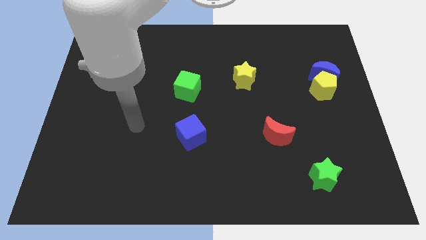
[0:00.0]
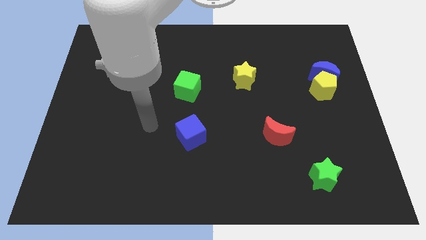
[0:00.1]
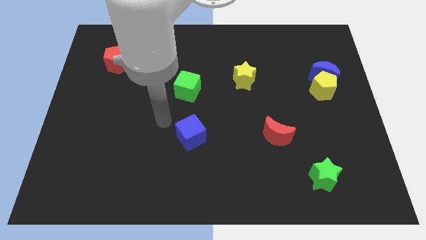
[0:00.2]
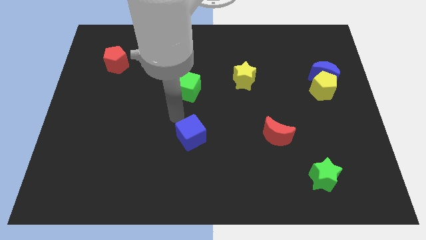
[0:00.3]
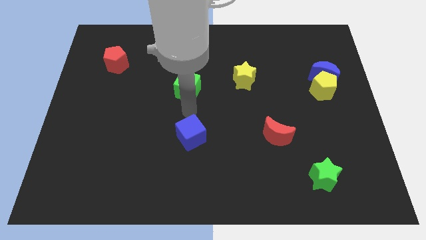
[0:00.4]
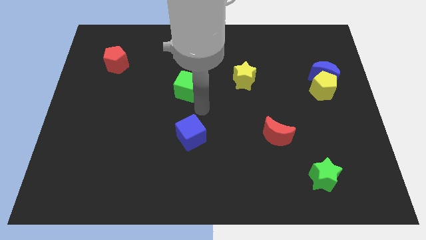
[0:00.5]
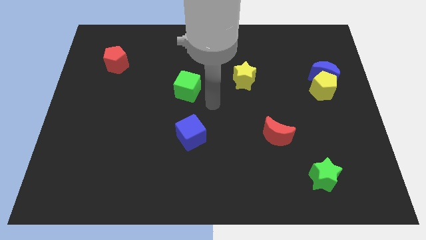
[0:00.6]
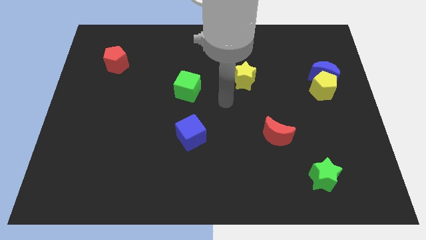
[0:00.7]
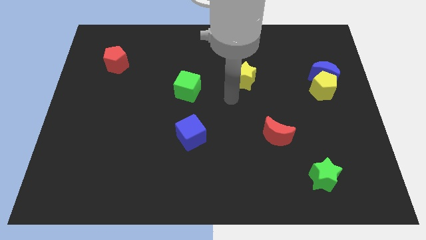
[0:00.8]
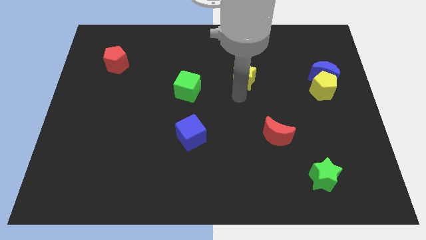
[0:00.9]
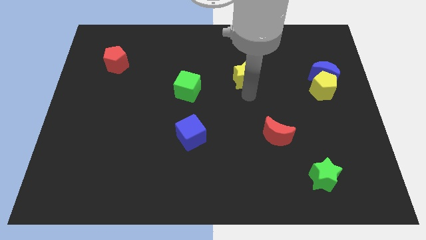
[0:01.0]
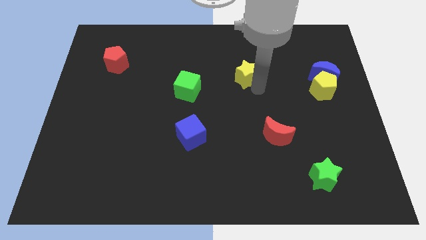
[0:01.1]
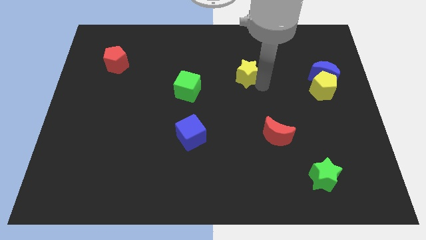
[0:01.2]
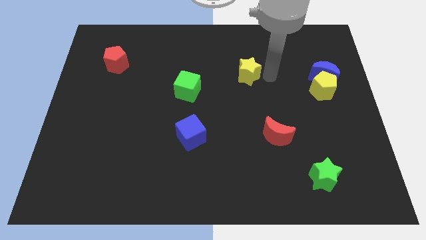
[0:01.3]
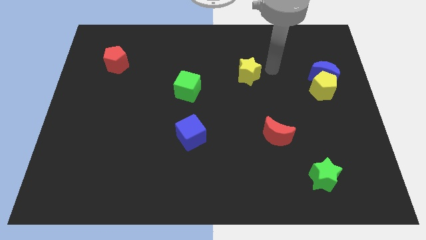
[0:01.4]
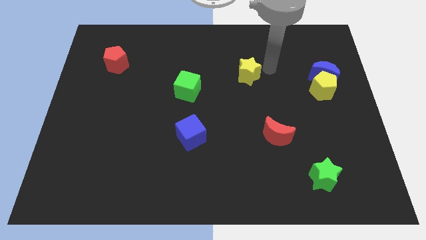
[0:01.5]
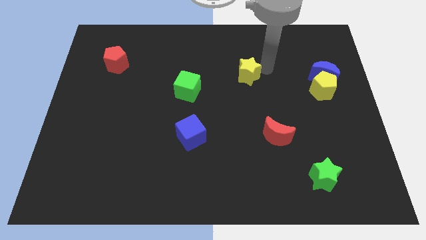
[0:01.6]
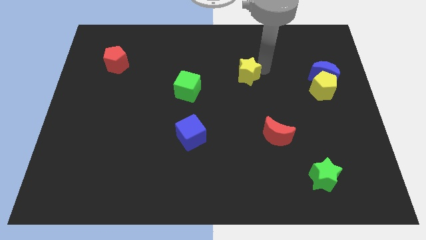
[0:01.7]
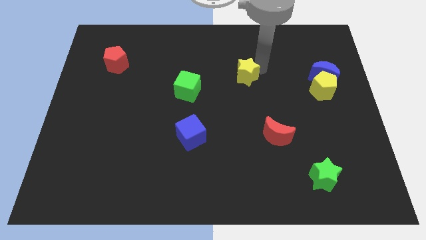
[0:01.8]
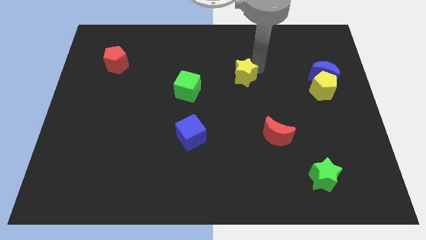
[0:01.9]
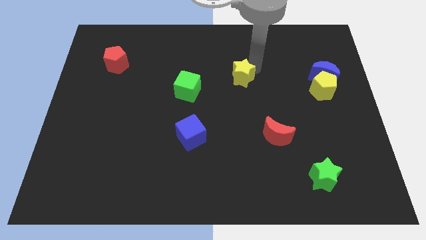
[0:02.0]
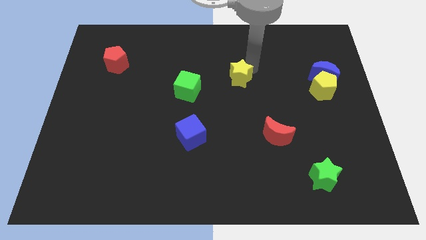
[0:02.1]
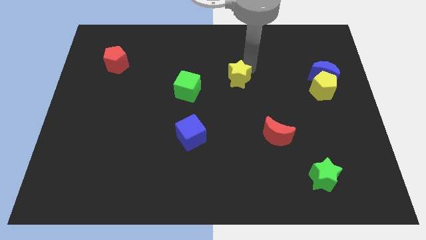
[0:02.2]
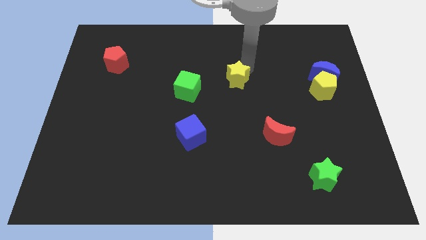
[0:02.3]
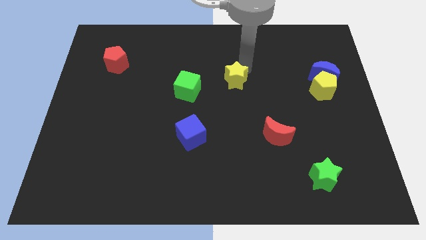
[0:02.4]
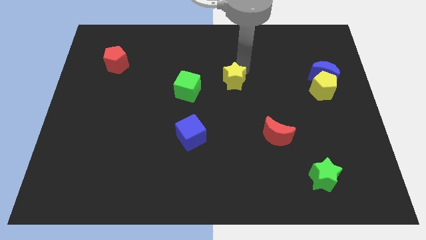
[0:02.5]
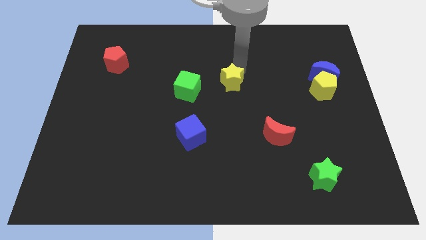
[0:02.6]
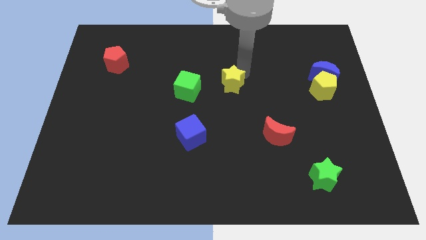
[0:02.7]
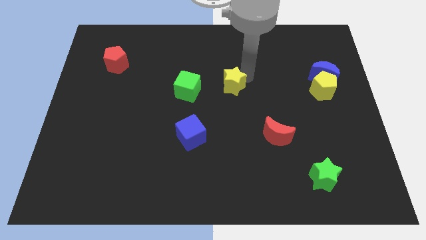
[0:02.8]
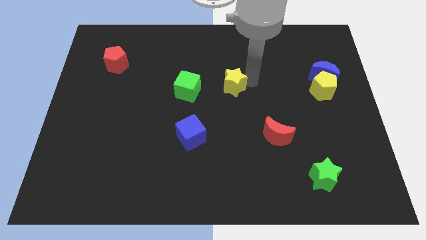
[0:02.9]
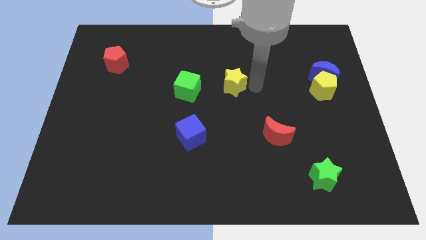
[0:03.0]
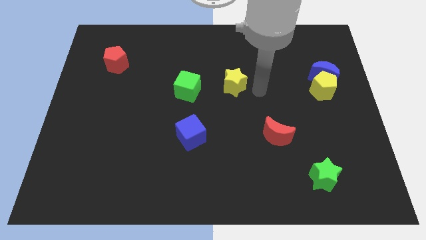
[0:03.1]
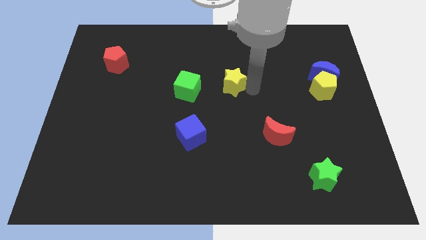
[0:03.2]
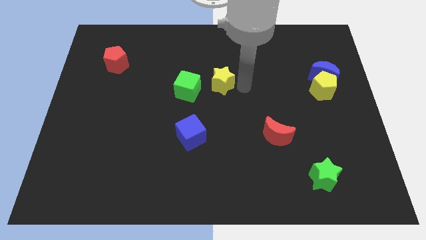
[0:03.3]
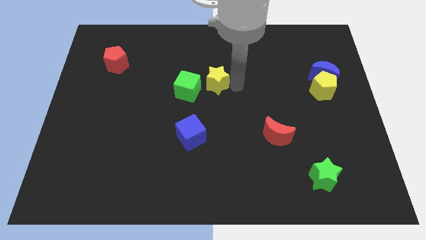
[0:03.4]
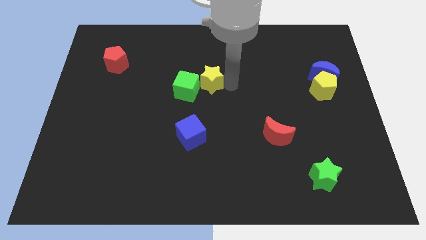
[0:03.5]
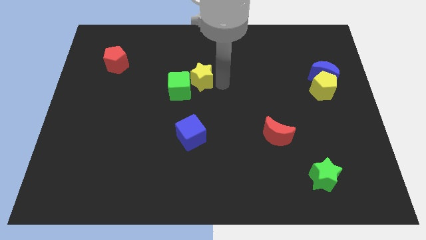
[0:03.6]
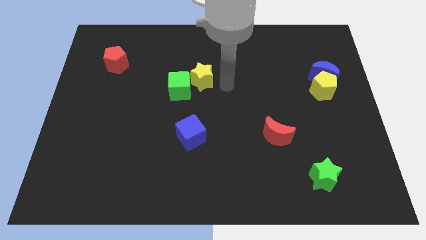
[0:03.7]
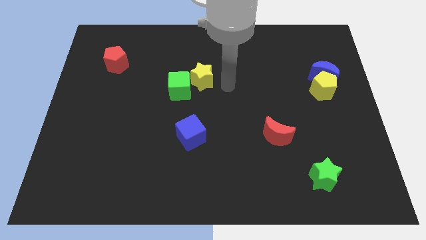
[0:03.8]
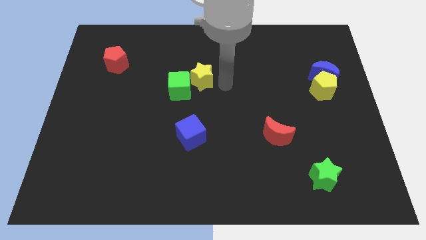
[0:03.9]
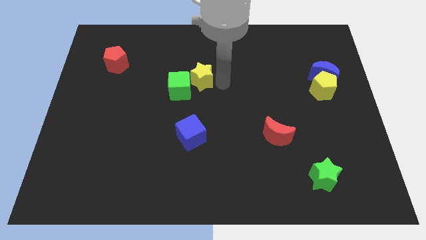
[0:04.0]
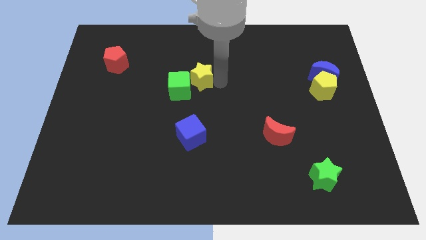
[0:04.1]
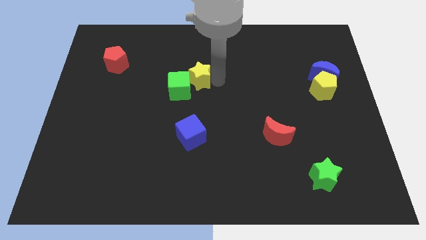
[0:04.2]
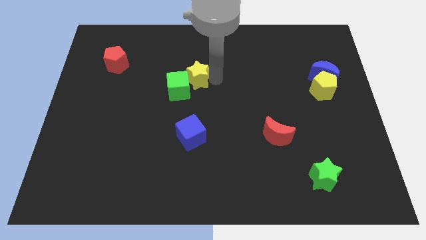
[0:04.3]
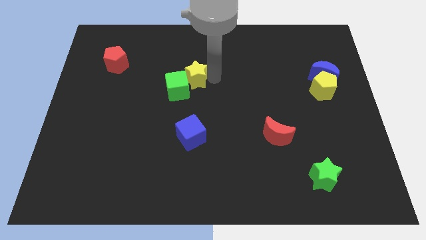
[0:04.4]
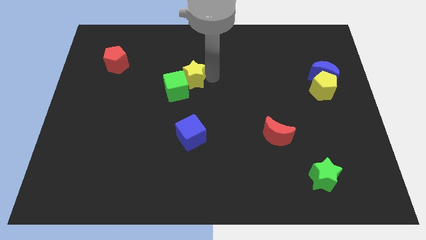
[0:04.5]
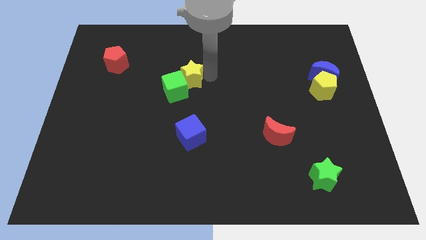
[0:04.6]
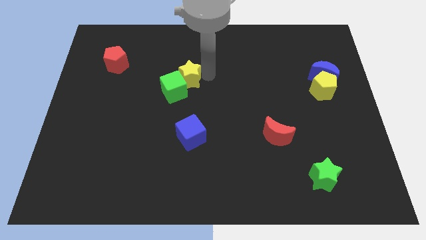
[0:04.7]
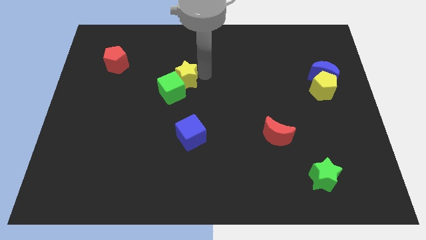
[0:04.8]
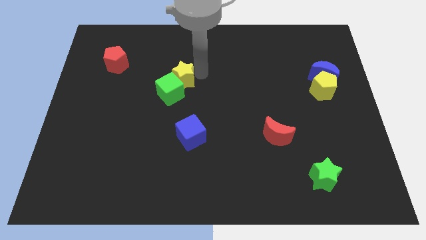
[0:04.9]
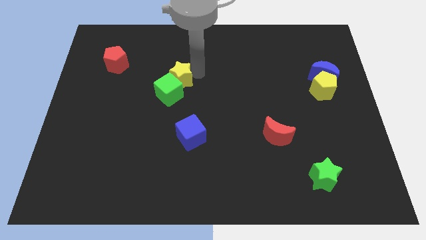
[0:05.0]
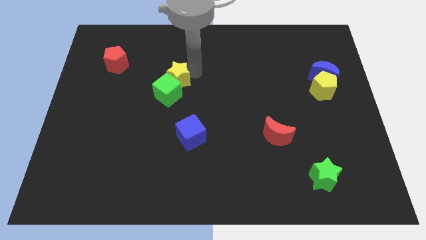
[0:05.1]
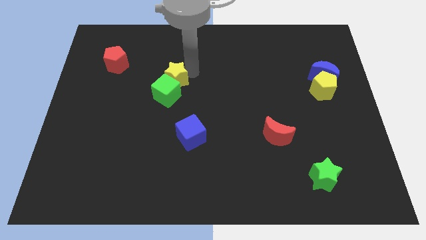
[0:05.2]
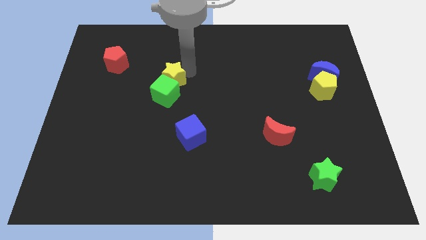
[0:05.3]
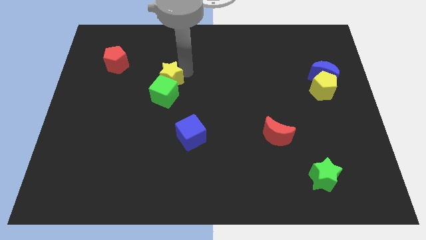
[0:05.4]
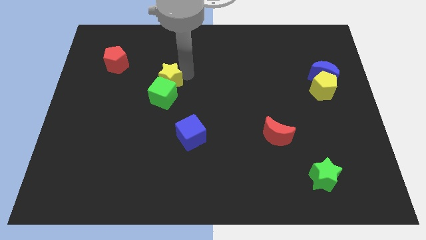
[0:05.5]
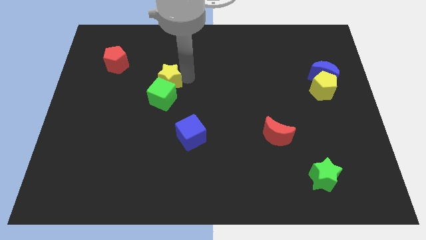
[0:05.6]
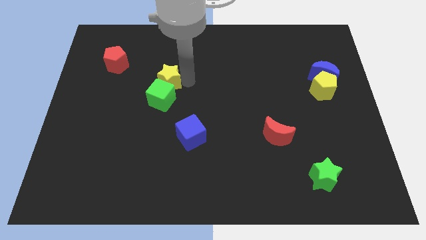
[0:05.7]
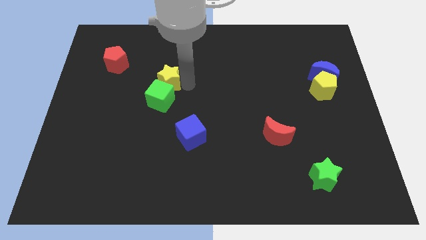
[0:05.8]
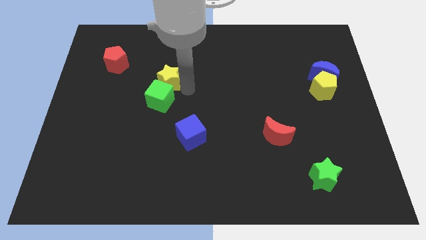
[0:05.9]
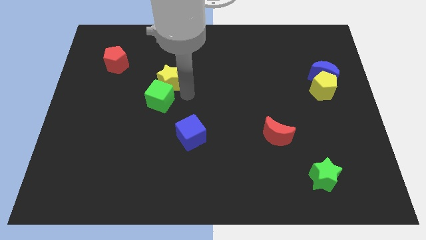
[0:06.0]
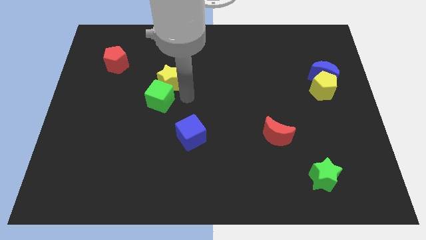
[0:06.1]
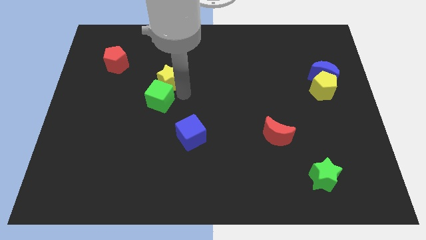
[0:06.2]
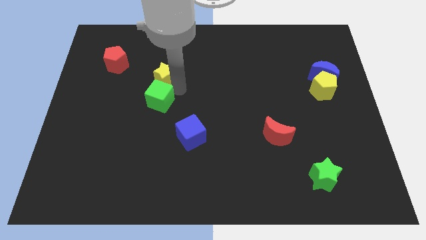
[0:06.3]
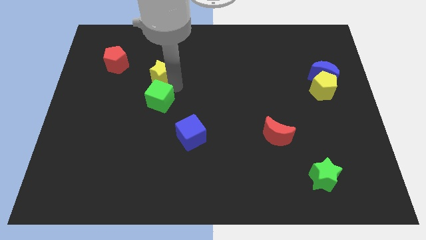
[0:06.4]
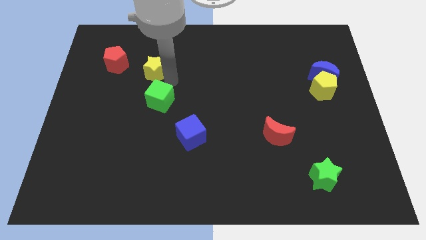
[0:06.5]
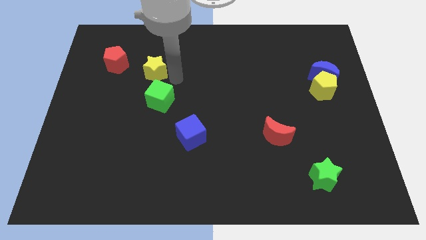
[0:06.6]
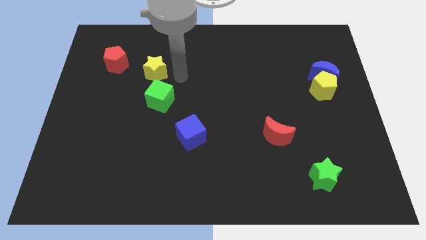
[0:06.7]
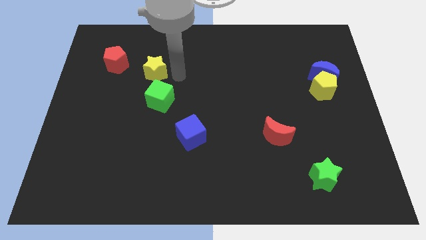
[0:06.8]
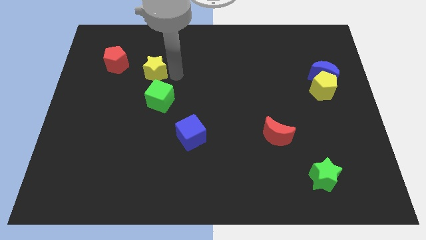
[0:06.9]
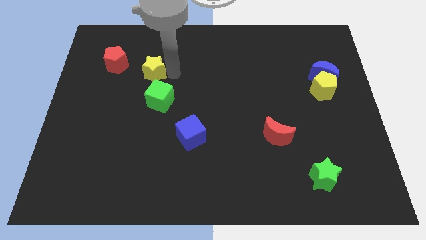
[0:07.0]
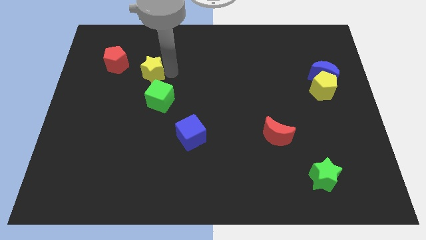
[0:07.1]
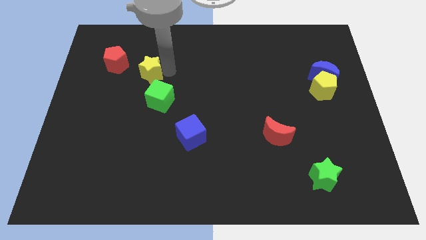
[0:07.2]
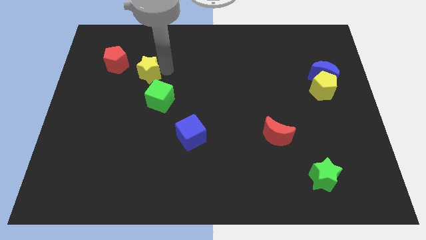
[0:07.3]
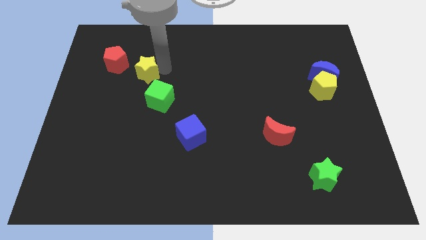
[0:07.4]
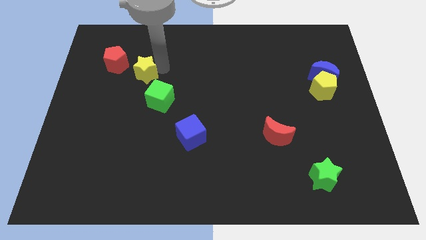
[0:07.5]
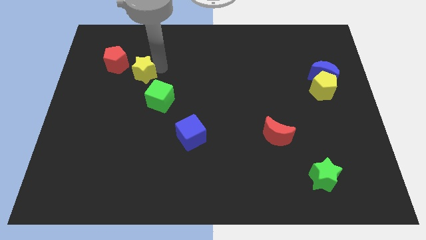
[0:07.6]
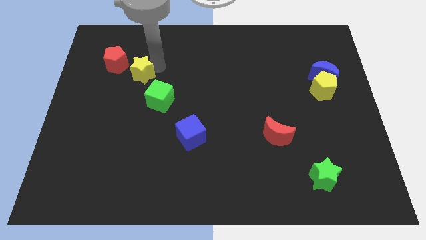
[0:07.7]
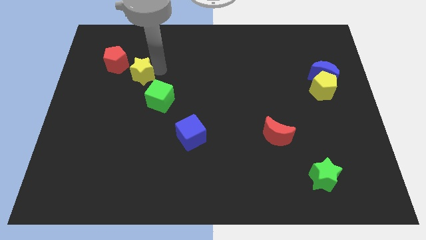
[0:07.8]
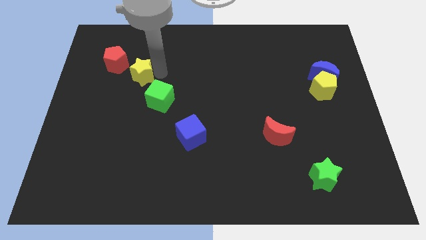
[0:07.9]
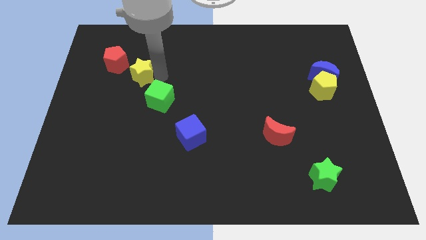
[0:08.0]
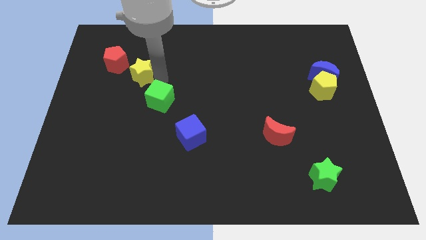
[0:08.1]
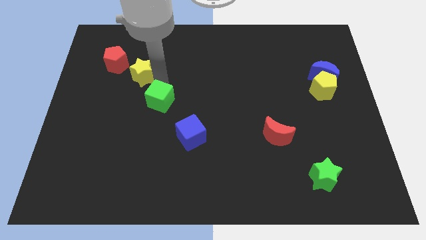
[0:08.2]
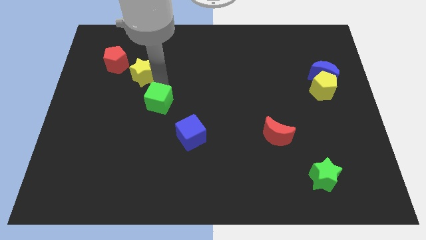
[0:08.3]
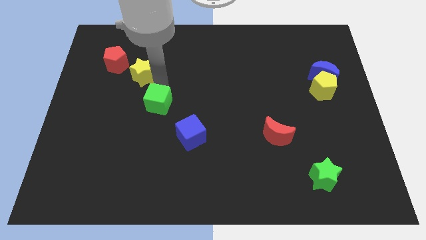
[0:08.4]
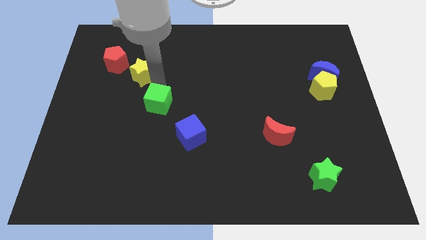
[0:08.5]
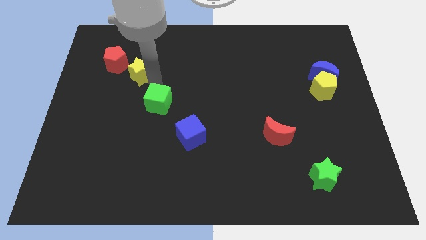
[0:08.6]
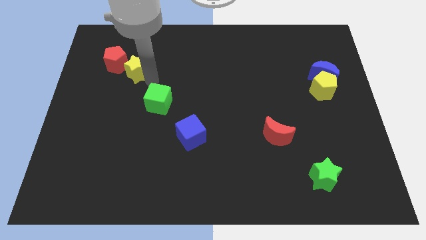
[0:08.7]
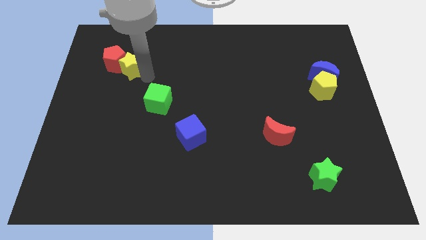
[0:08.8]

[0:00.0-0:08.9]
move the yellow star to the red pentagon
